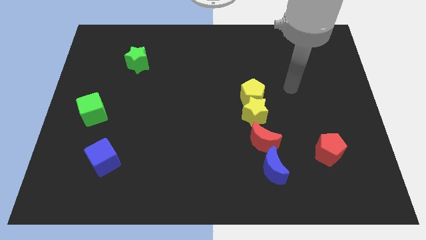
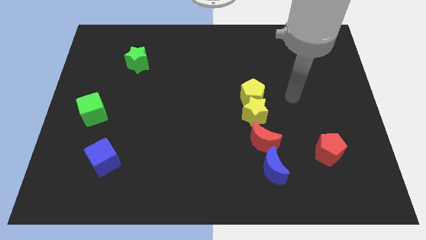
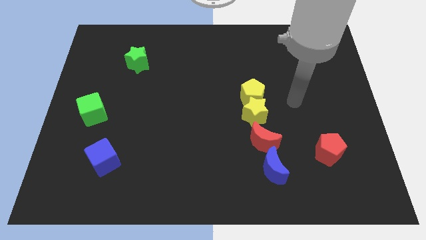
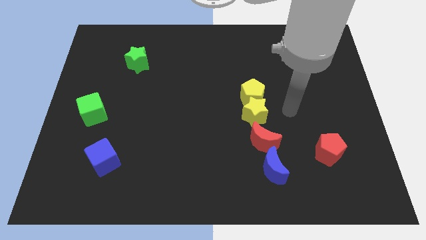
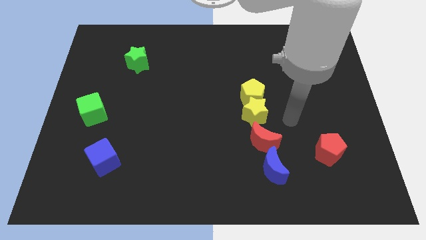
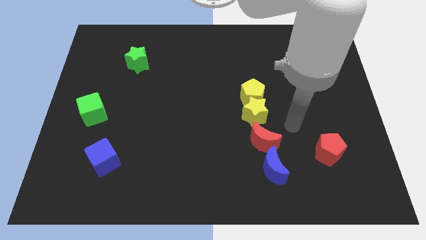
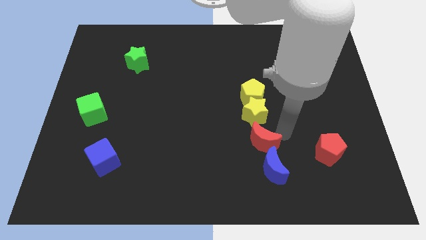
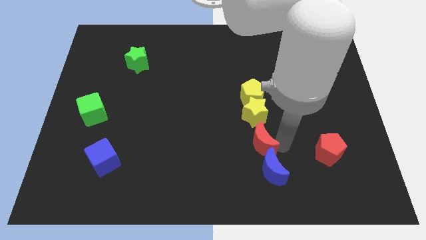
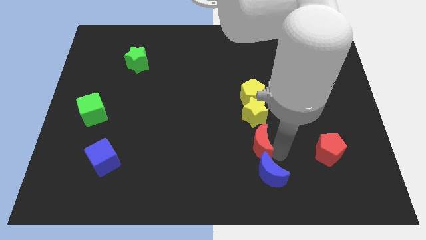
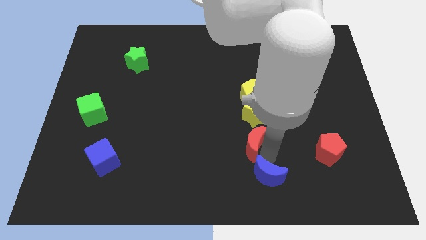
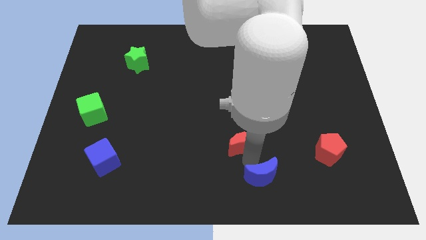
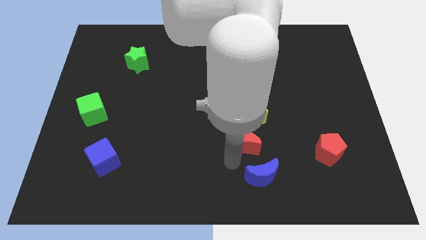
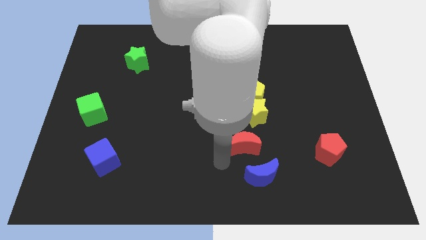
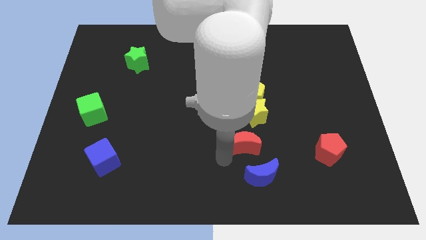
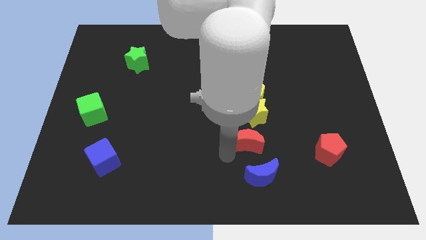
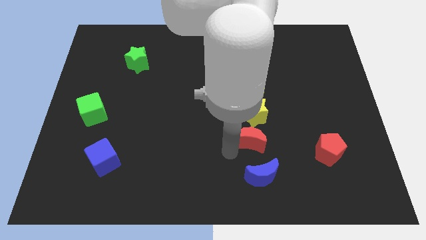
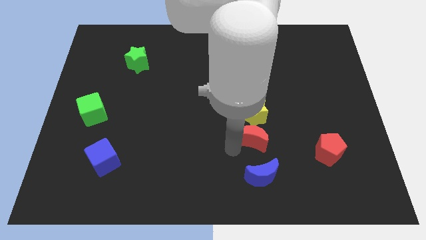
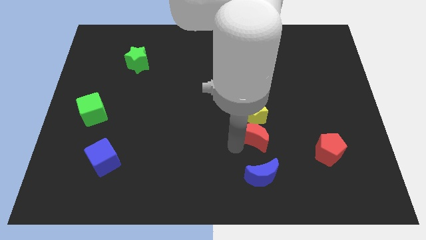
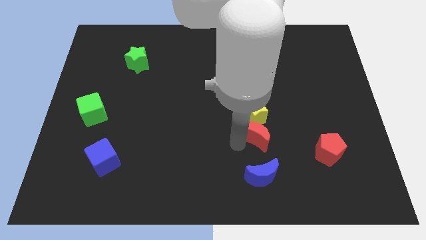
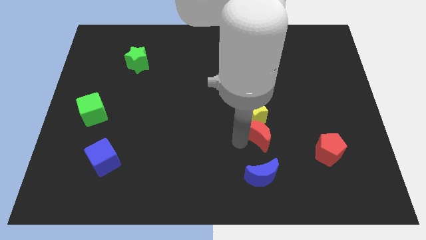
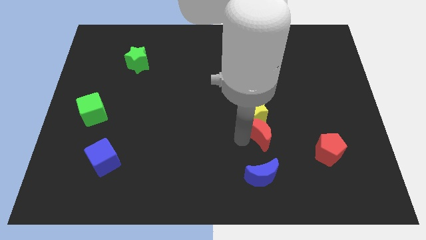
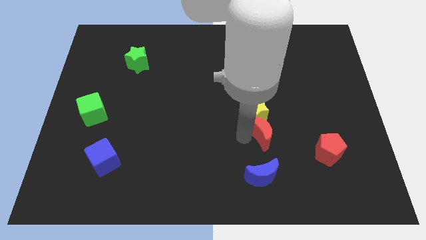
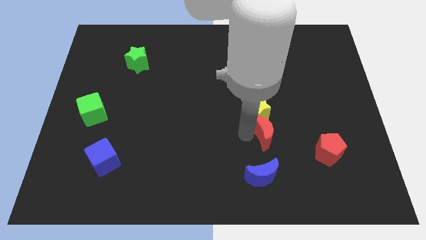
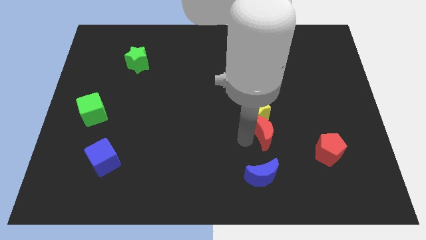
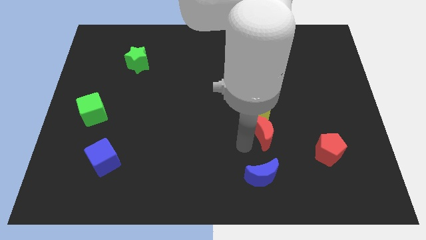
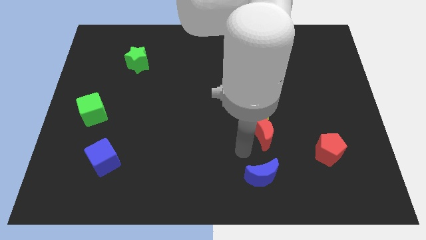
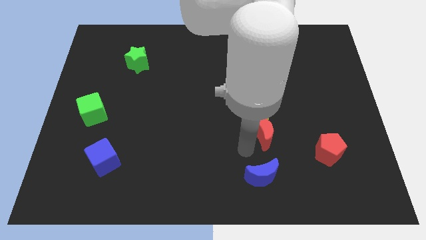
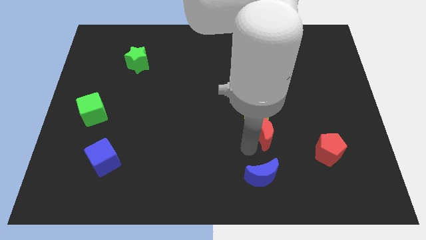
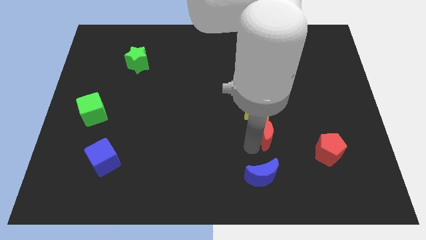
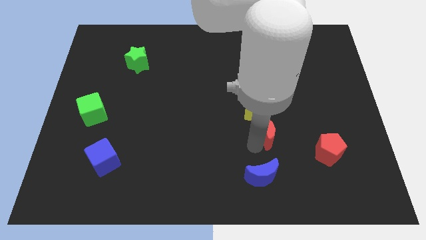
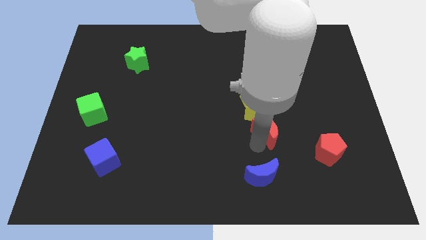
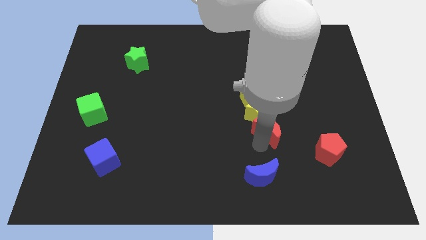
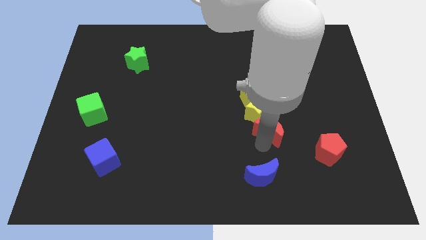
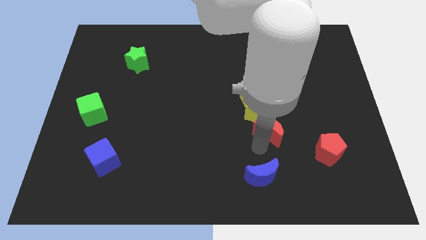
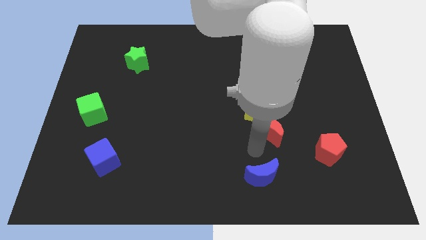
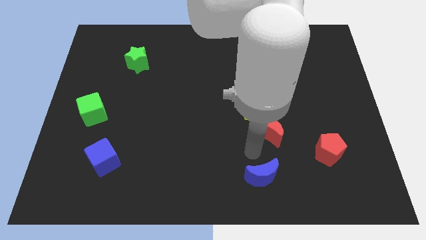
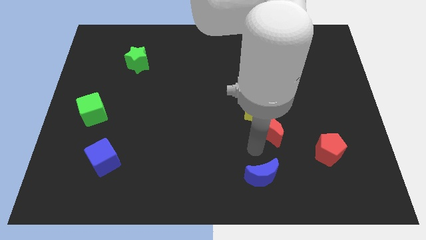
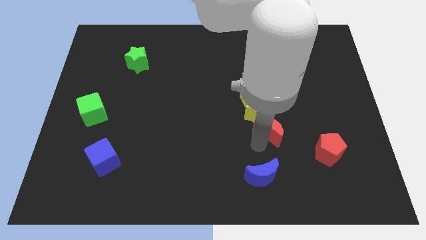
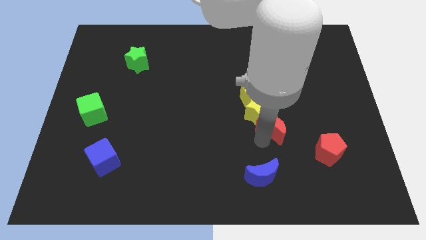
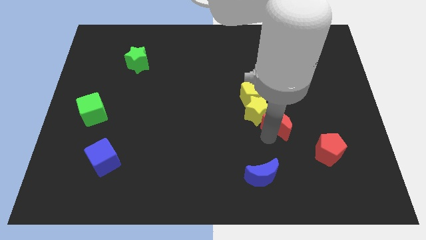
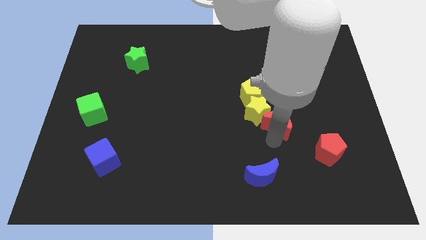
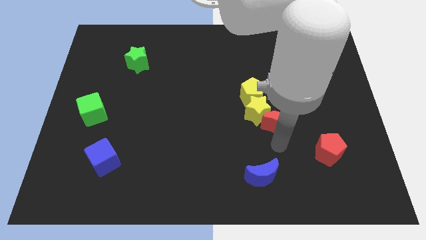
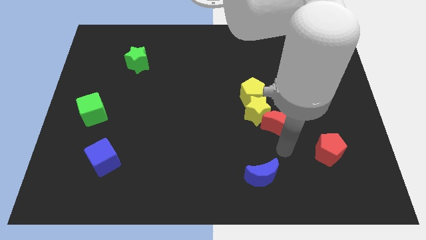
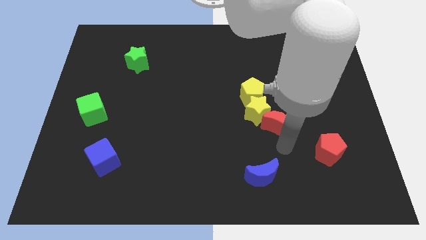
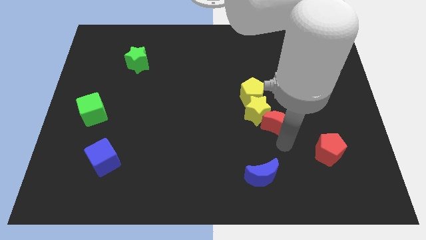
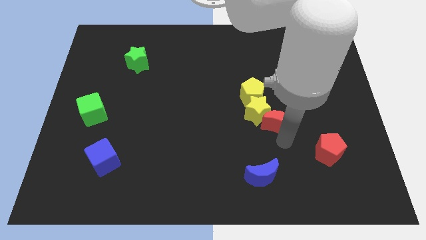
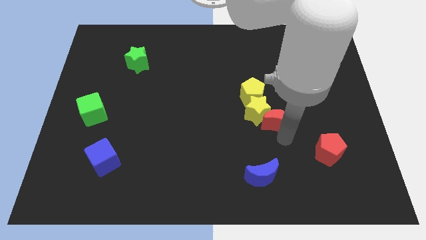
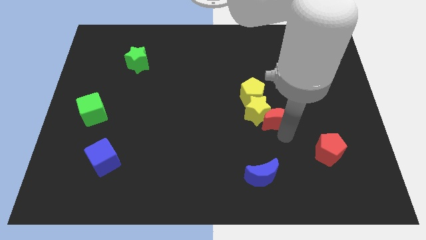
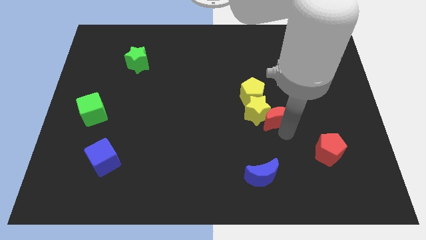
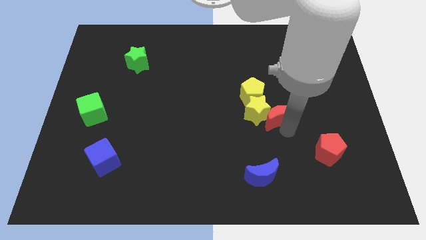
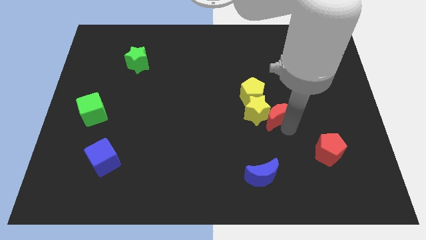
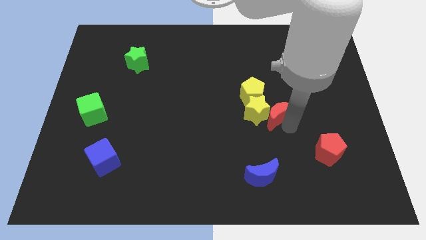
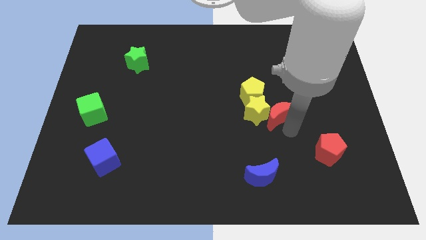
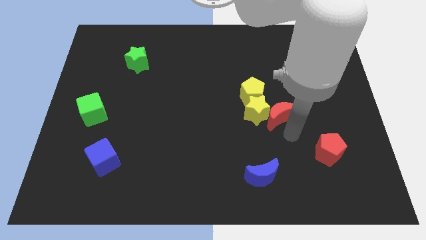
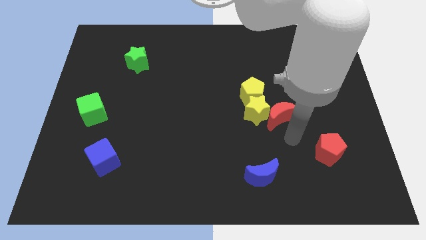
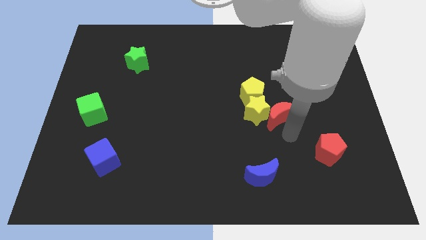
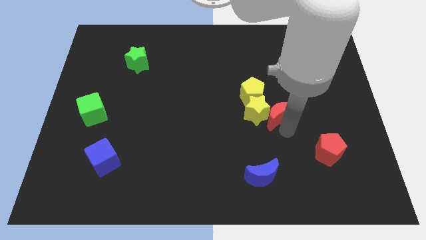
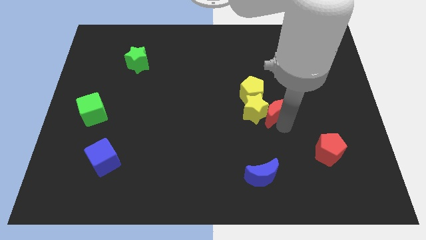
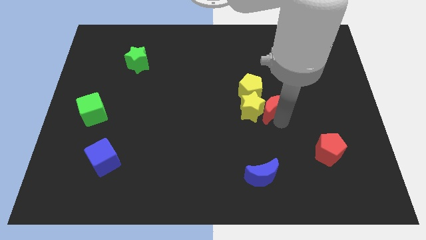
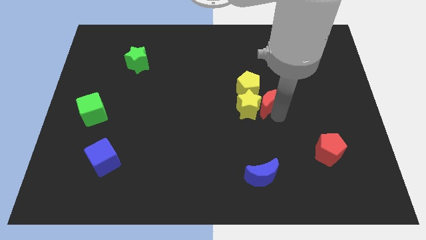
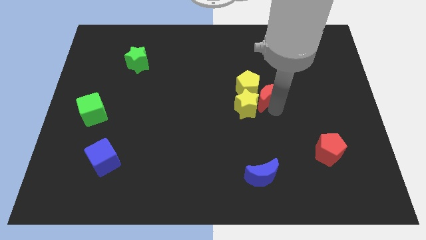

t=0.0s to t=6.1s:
push the red moon towards the yellow pentagon

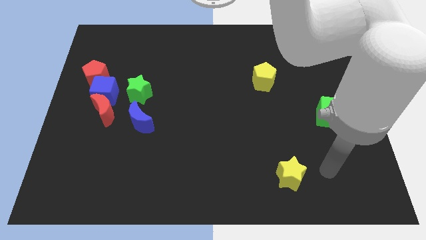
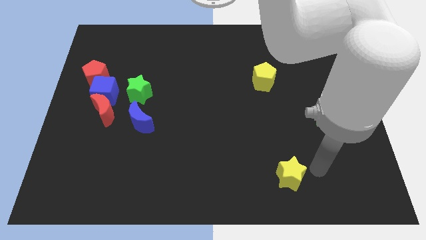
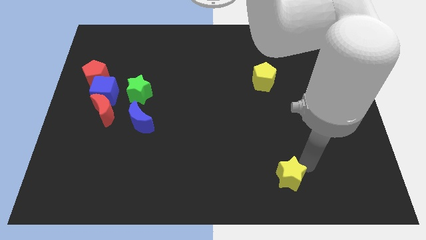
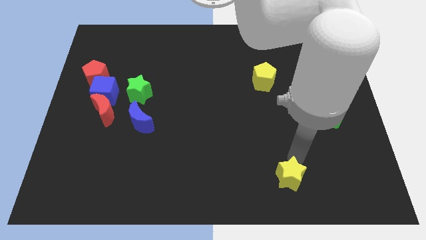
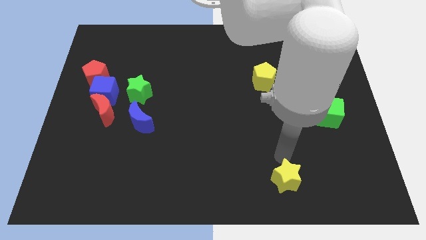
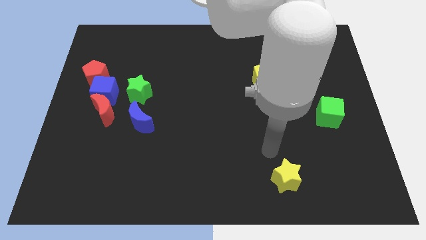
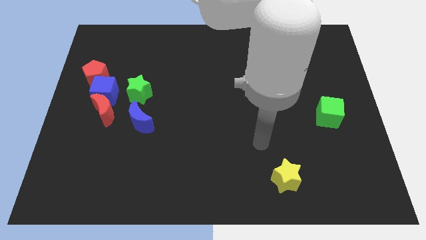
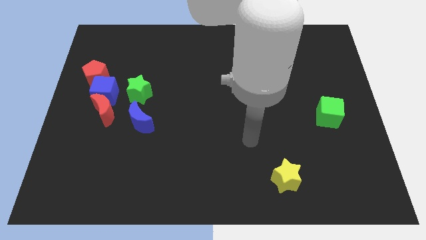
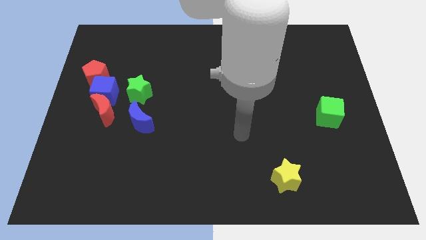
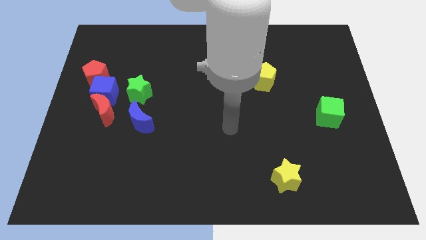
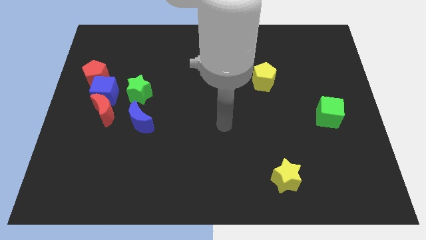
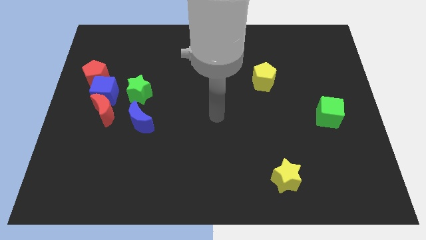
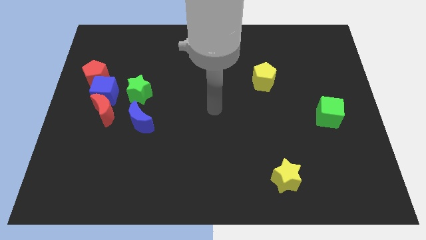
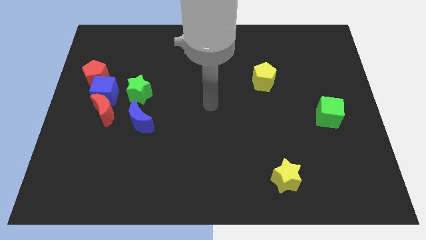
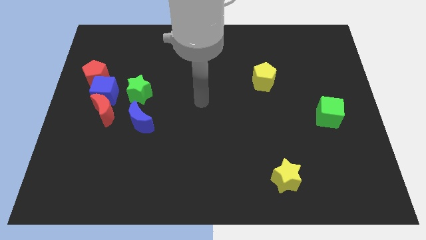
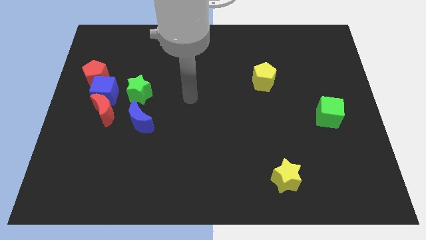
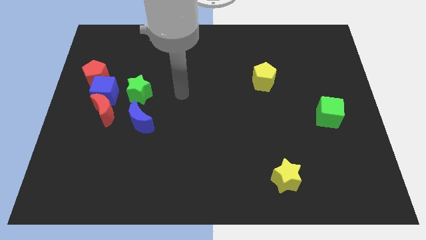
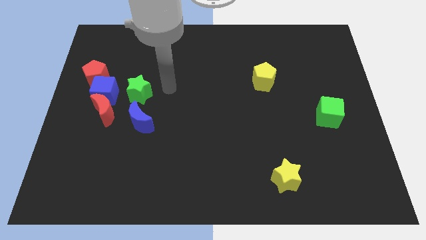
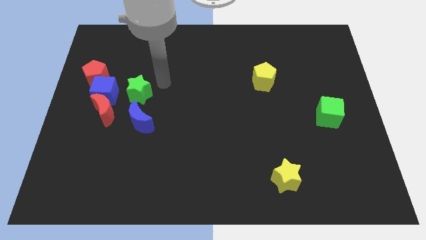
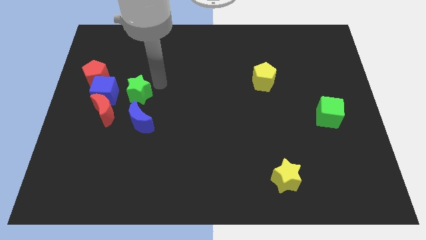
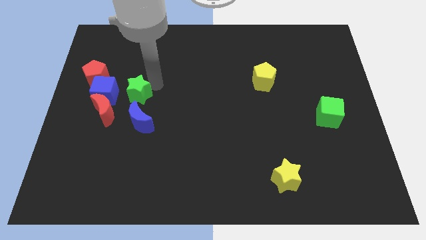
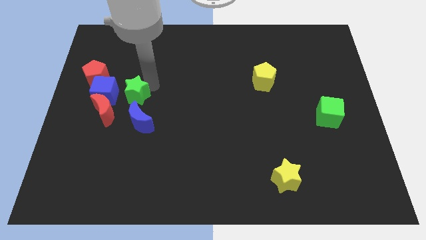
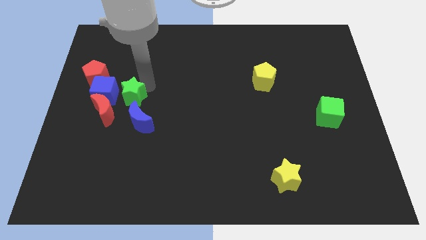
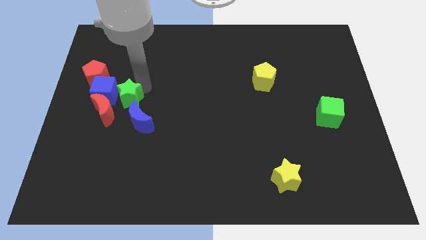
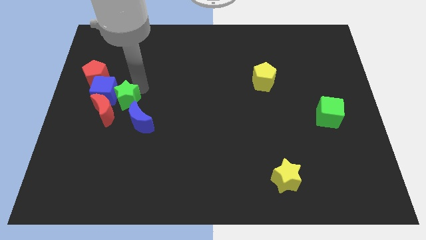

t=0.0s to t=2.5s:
put the green star towards the red moon

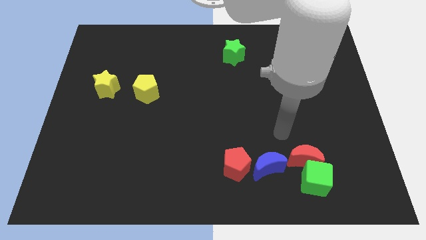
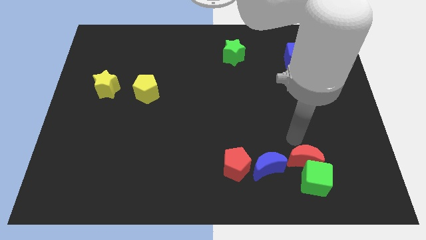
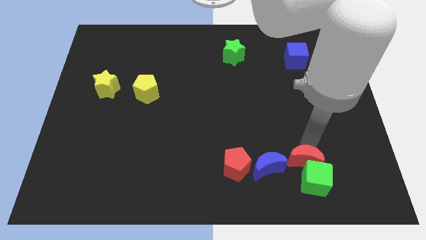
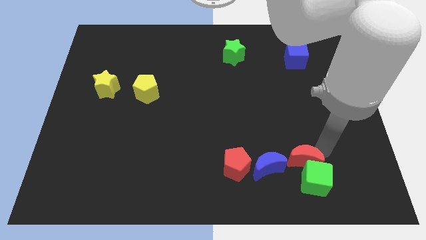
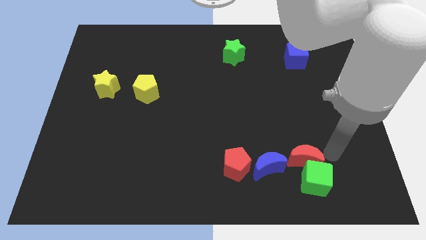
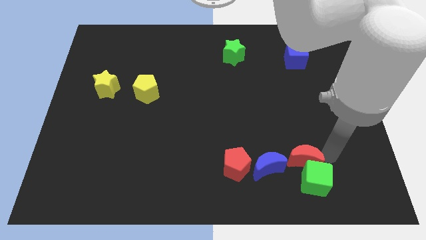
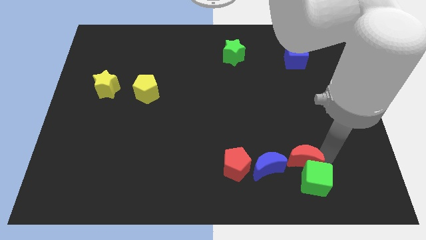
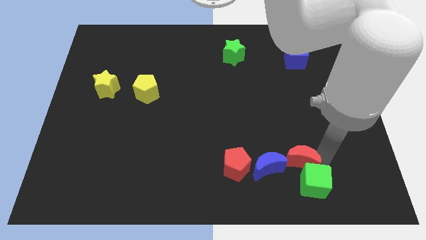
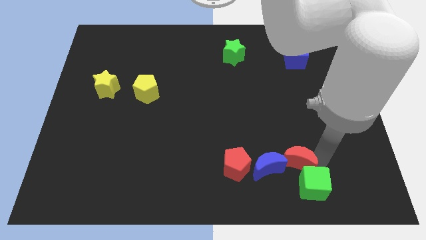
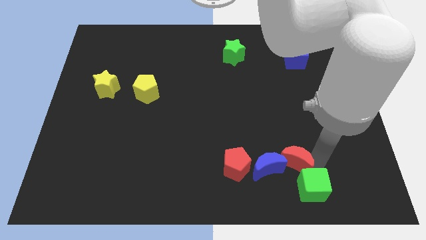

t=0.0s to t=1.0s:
put the red moon towards the blue moon
